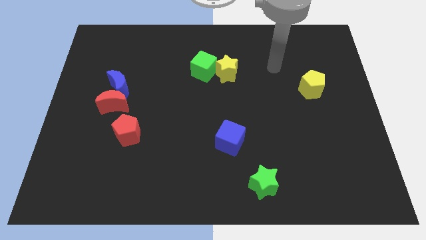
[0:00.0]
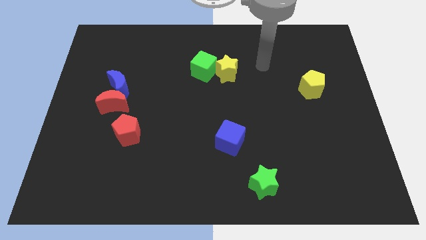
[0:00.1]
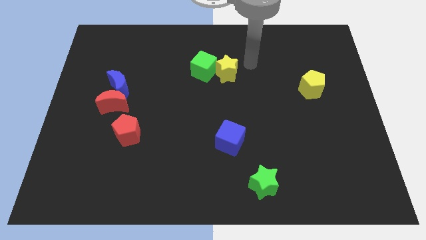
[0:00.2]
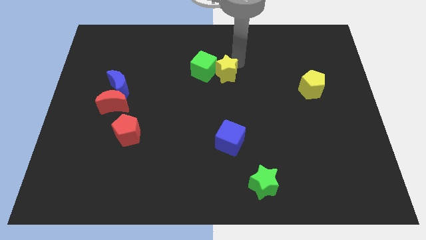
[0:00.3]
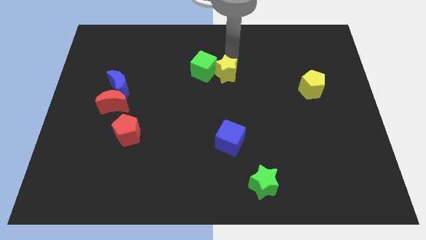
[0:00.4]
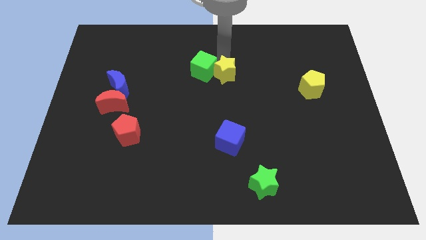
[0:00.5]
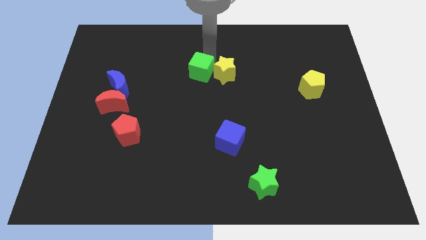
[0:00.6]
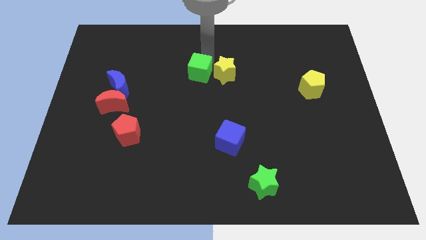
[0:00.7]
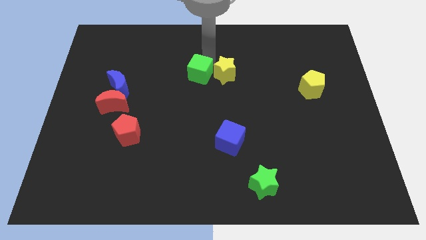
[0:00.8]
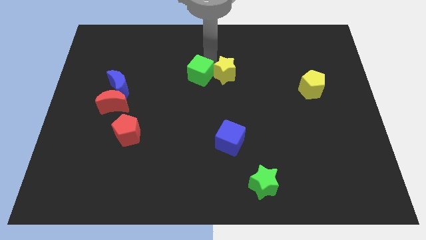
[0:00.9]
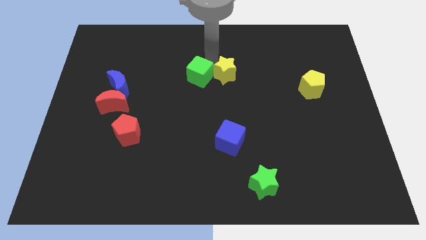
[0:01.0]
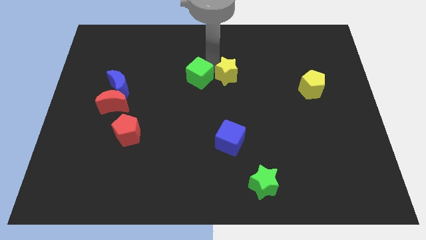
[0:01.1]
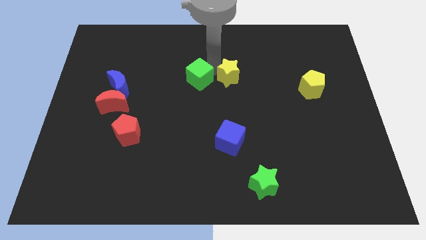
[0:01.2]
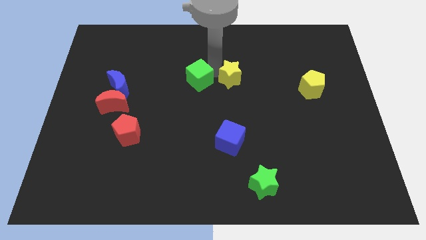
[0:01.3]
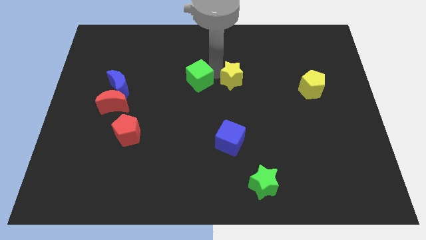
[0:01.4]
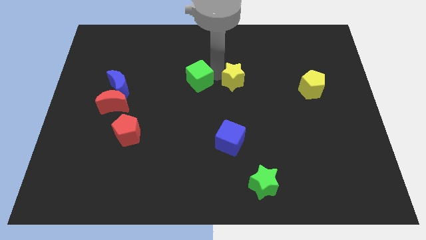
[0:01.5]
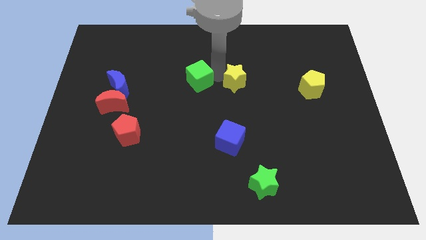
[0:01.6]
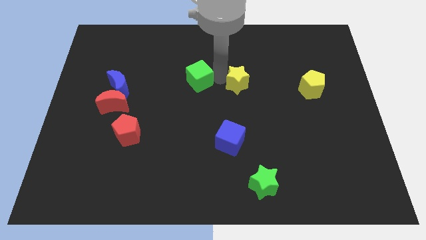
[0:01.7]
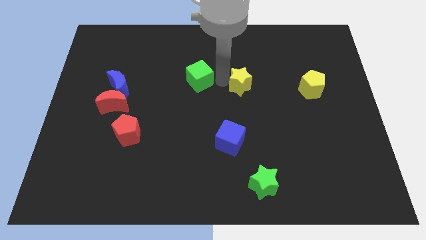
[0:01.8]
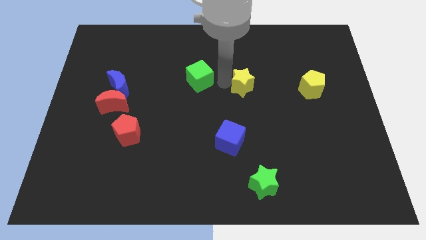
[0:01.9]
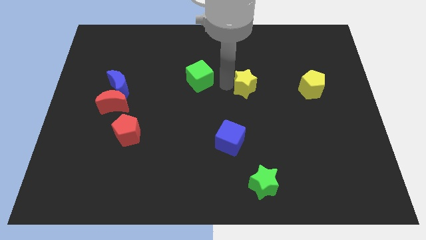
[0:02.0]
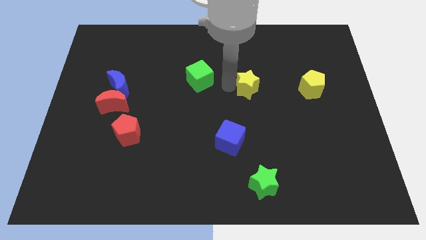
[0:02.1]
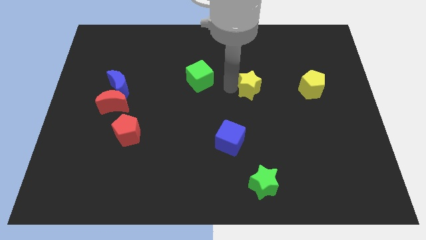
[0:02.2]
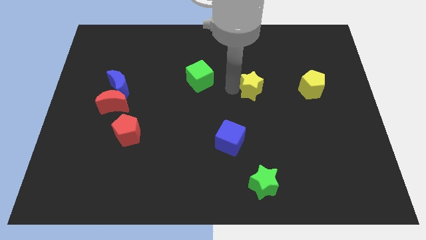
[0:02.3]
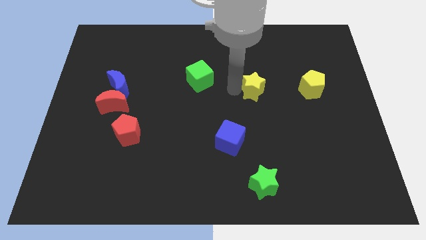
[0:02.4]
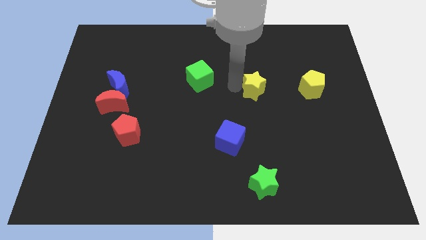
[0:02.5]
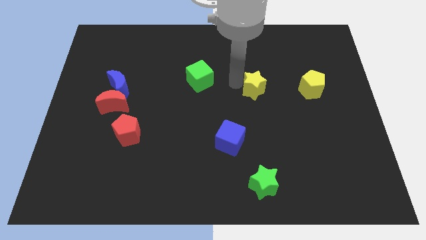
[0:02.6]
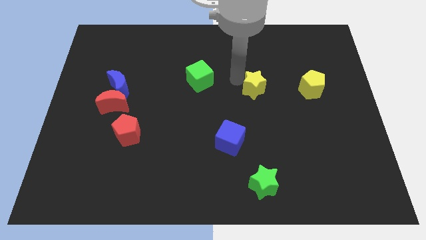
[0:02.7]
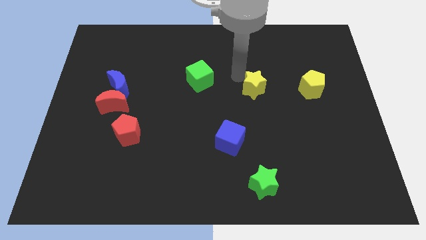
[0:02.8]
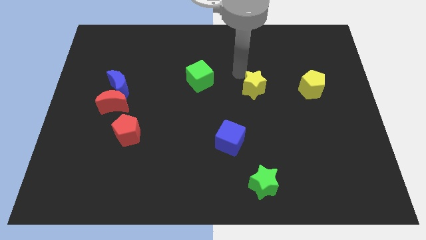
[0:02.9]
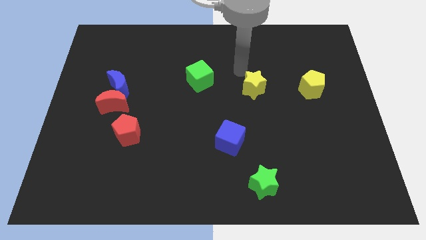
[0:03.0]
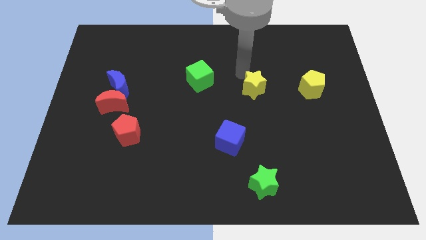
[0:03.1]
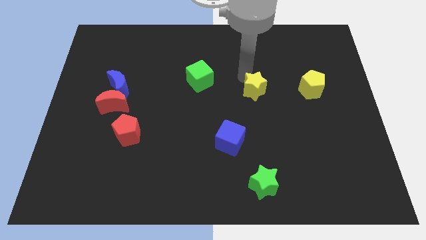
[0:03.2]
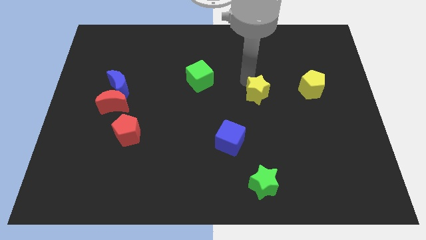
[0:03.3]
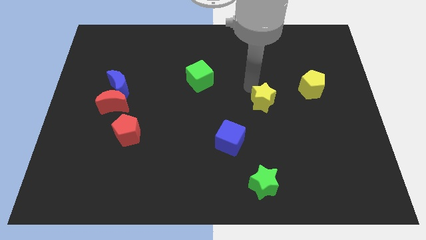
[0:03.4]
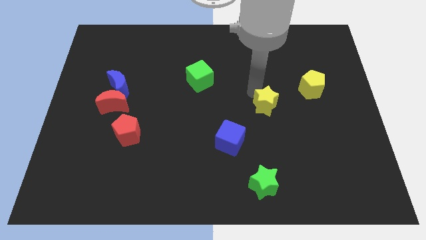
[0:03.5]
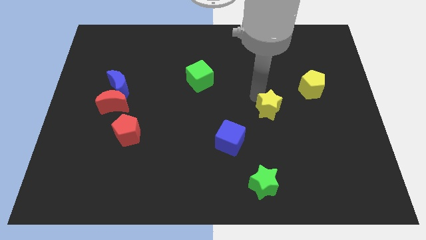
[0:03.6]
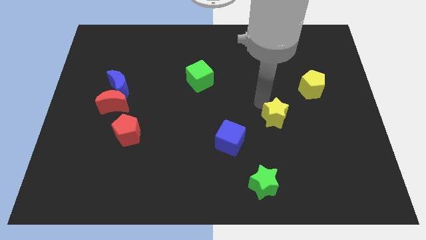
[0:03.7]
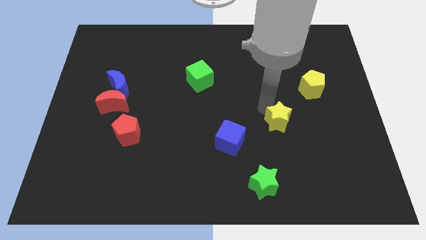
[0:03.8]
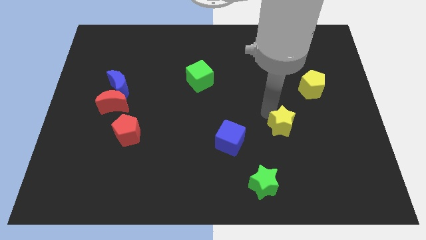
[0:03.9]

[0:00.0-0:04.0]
push the yellow star diagonally down and to the right

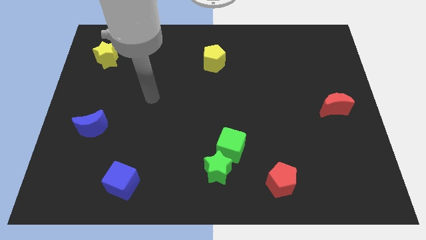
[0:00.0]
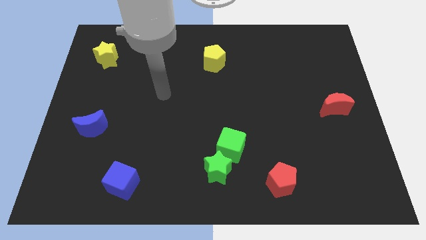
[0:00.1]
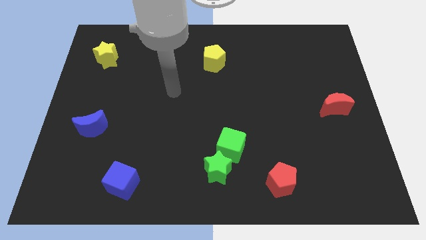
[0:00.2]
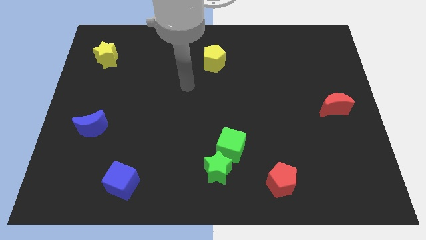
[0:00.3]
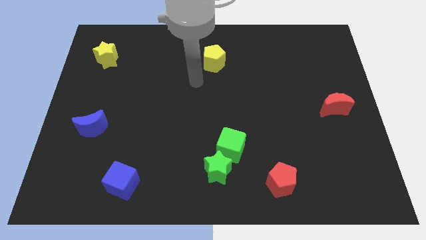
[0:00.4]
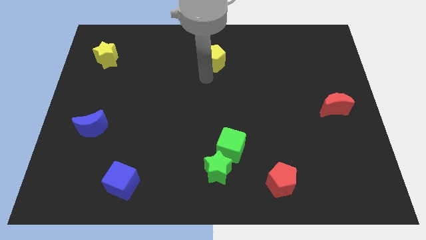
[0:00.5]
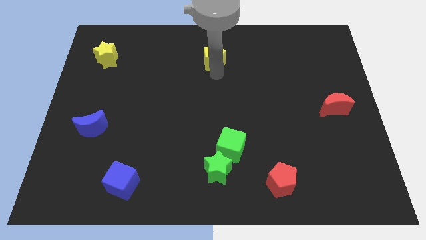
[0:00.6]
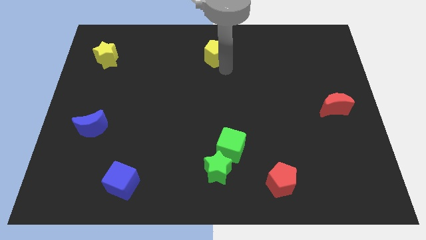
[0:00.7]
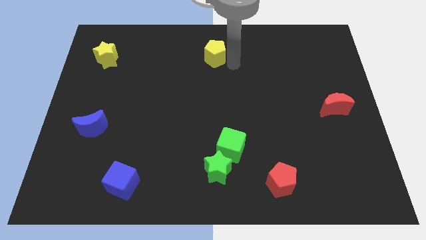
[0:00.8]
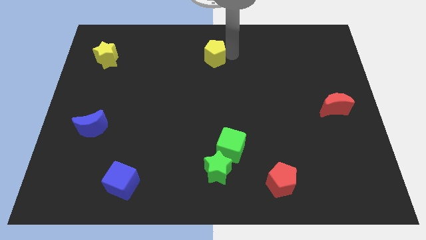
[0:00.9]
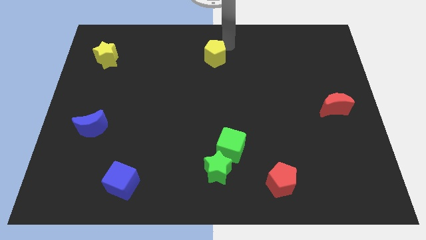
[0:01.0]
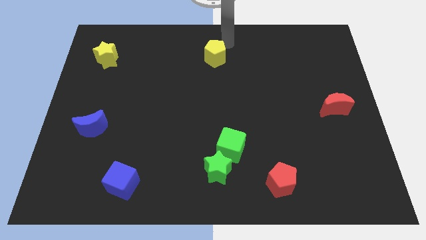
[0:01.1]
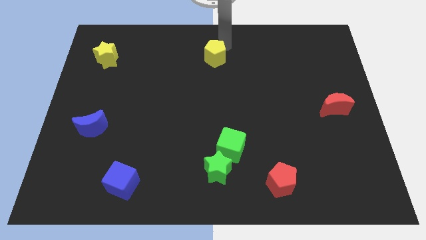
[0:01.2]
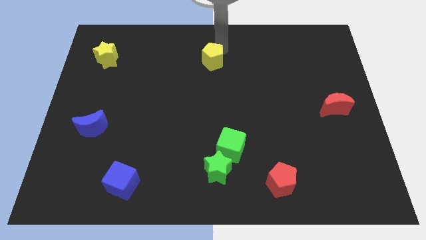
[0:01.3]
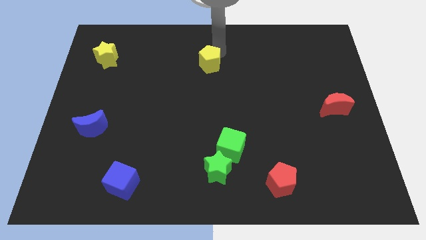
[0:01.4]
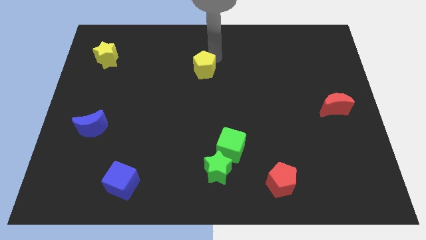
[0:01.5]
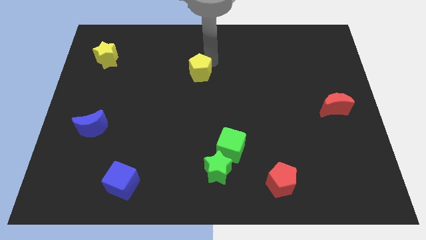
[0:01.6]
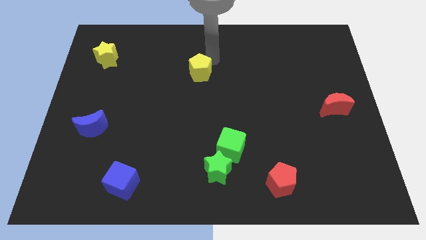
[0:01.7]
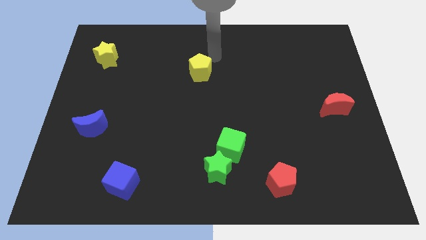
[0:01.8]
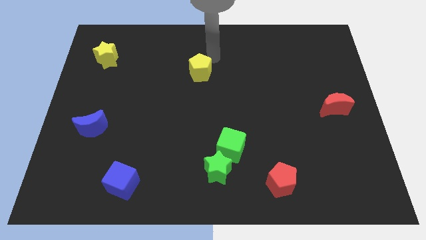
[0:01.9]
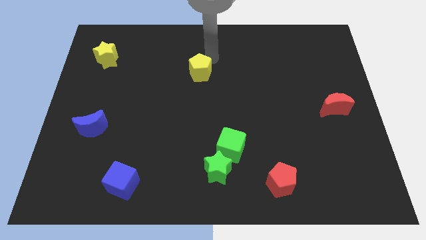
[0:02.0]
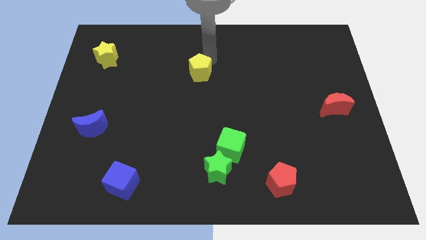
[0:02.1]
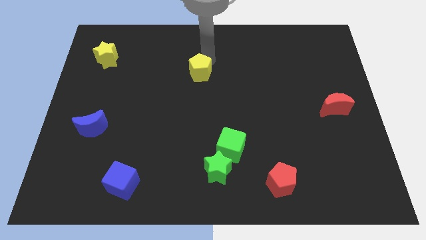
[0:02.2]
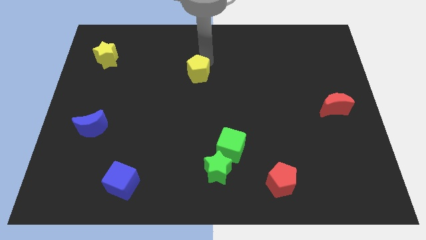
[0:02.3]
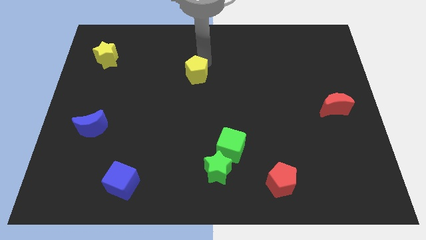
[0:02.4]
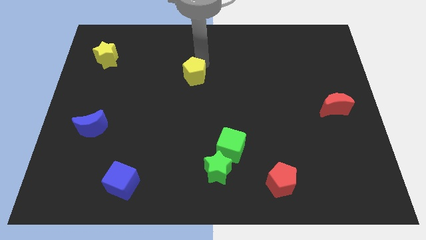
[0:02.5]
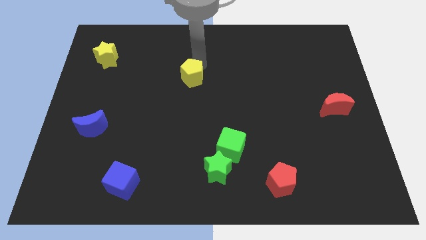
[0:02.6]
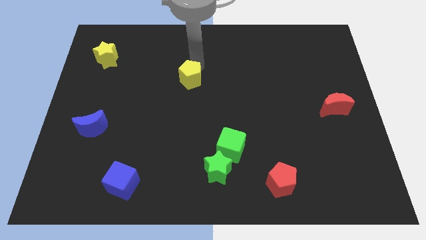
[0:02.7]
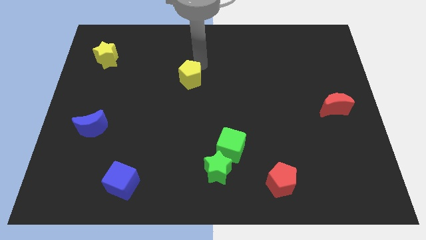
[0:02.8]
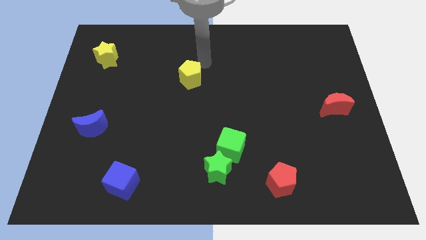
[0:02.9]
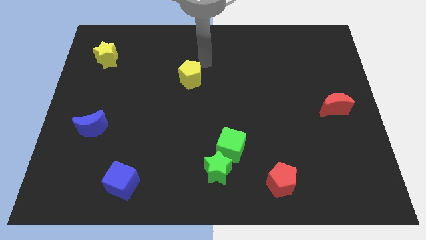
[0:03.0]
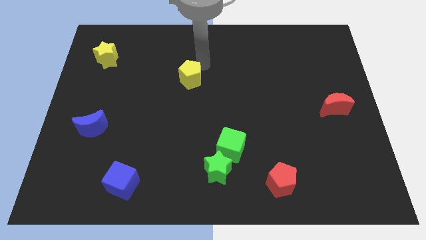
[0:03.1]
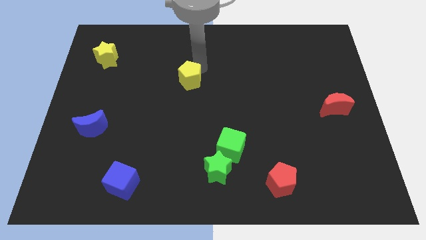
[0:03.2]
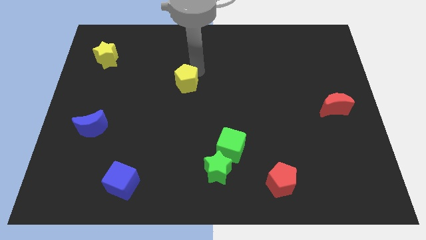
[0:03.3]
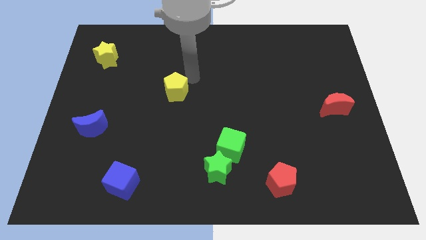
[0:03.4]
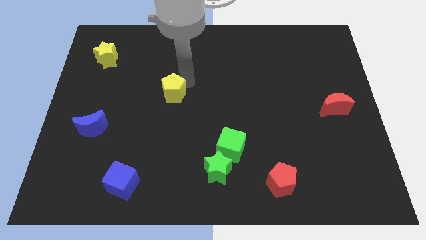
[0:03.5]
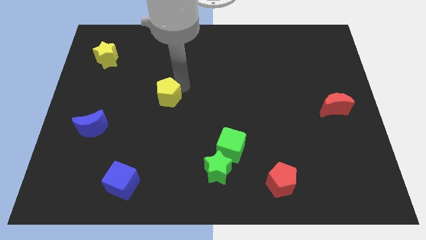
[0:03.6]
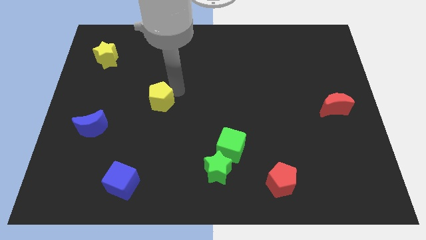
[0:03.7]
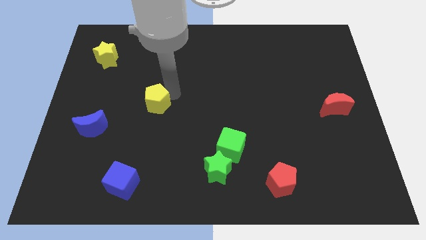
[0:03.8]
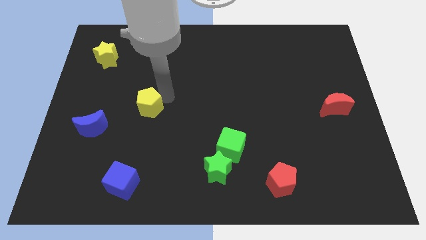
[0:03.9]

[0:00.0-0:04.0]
push the yellow pentagon down and then left
